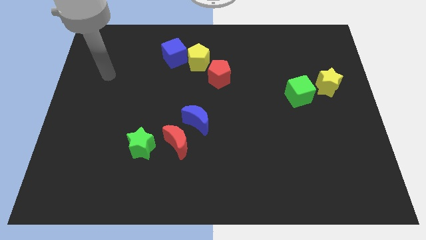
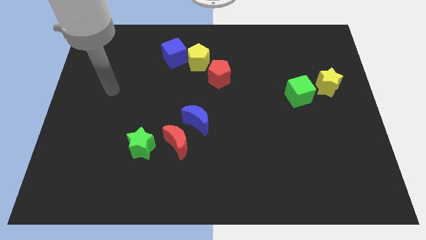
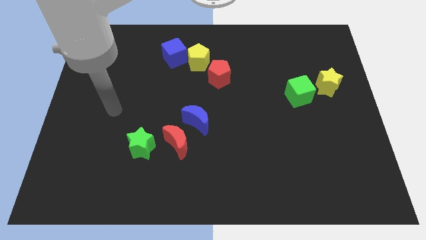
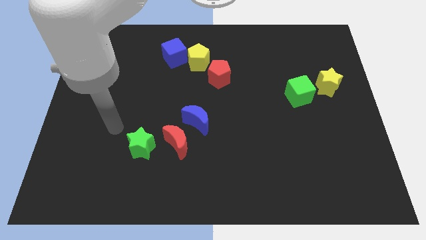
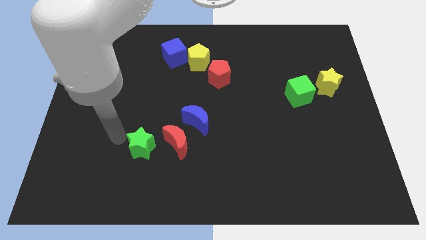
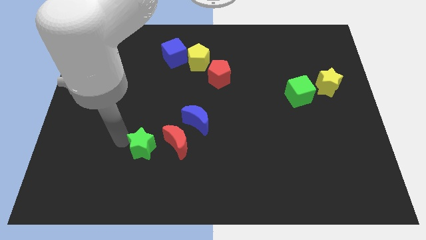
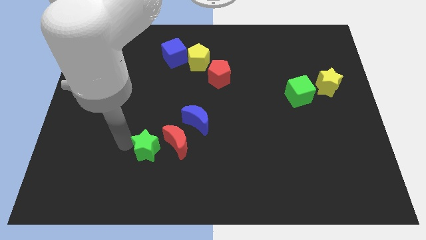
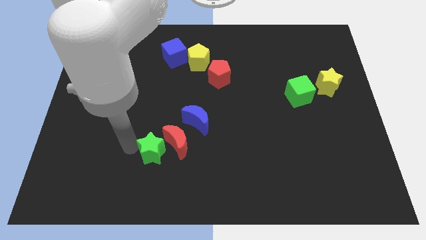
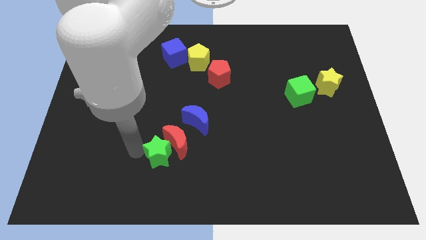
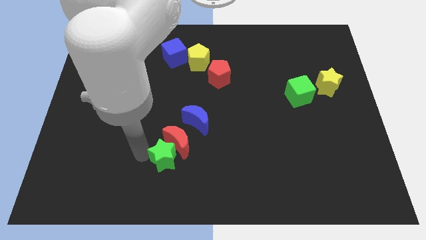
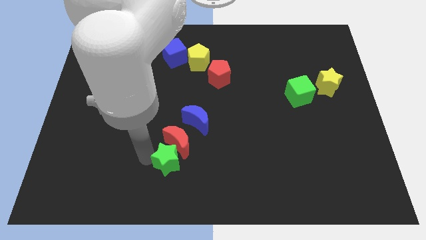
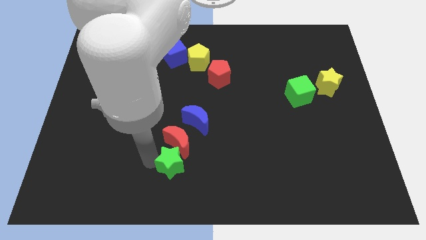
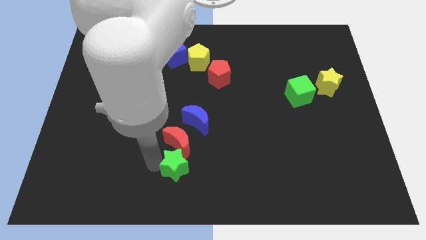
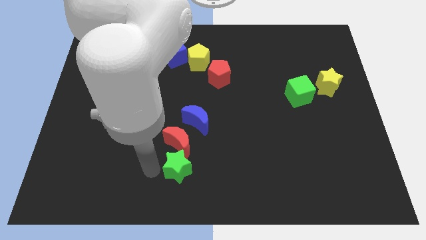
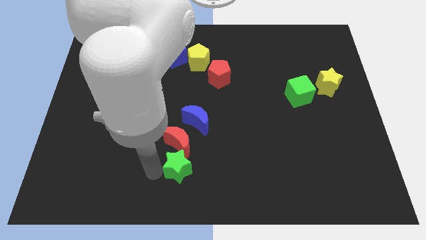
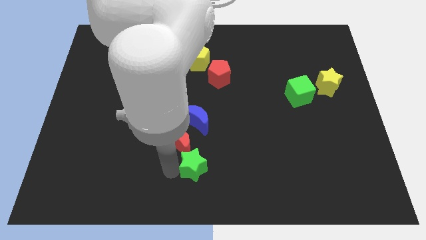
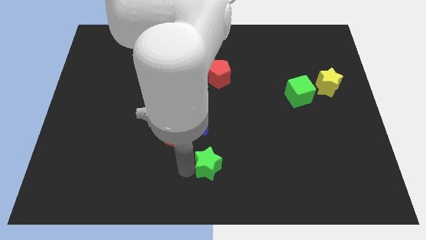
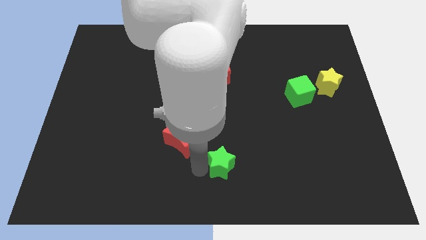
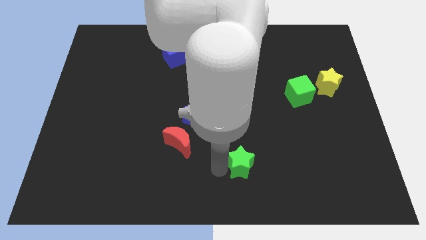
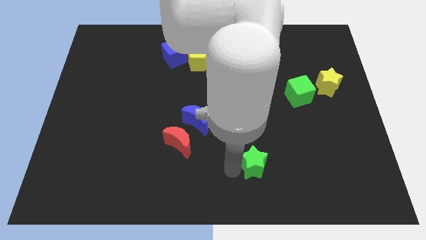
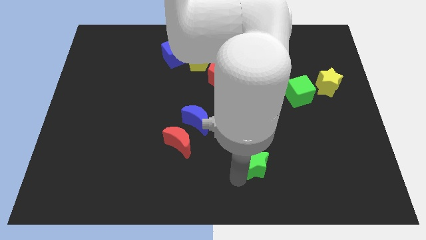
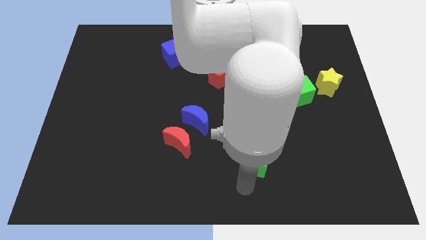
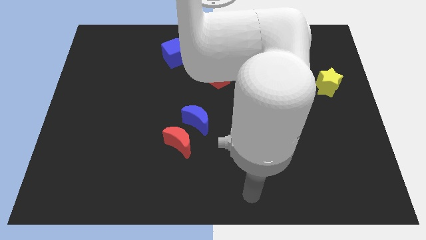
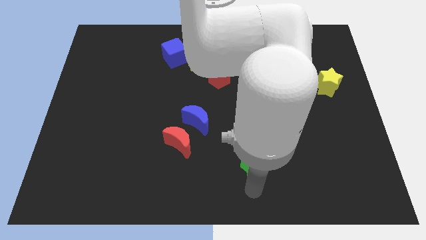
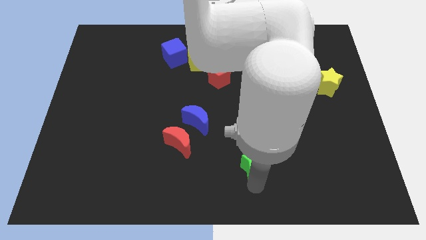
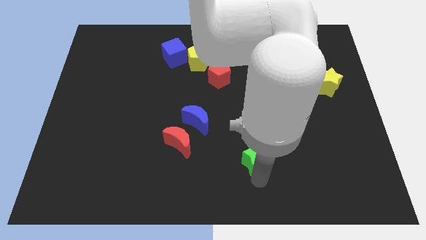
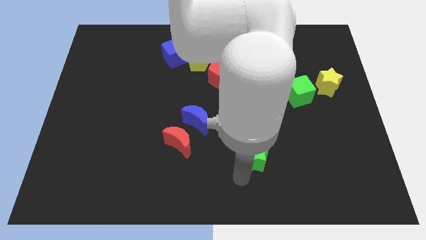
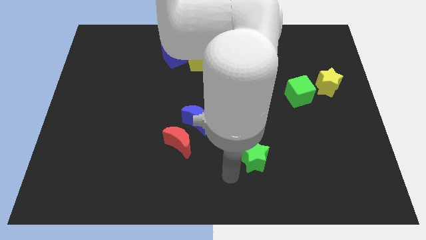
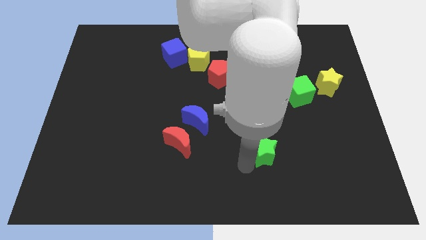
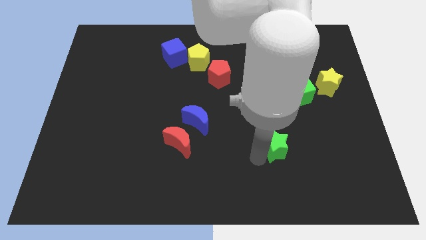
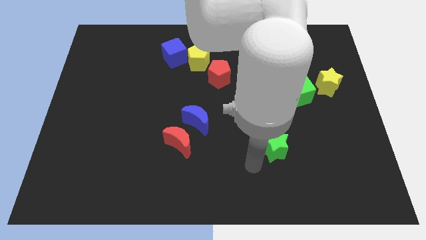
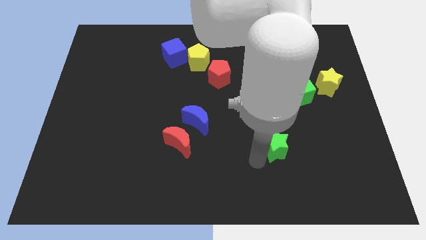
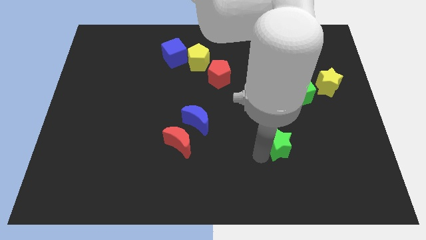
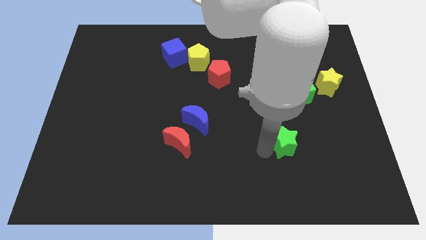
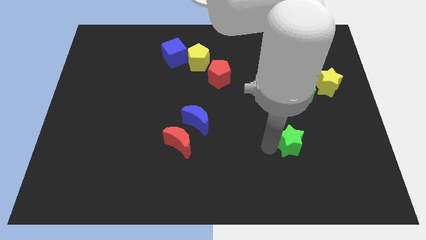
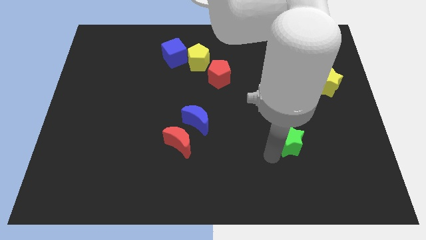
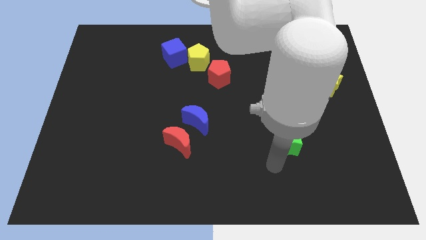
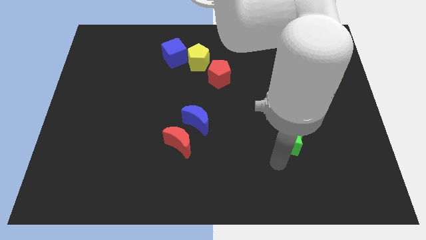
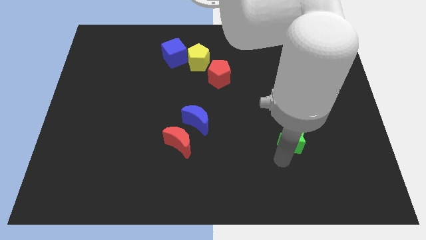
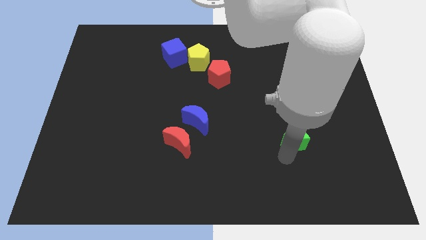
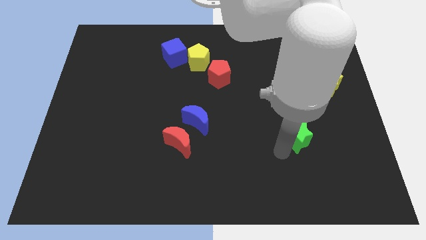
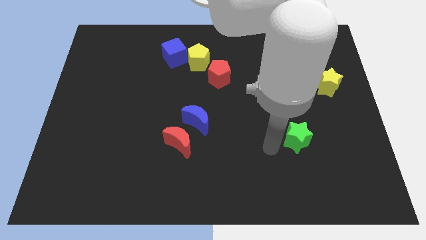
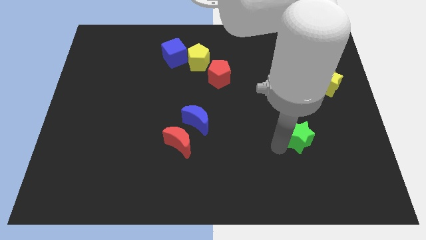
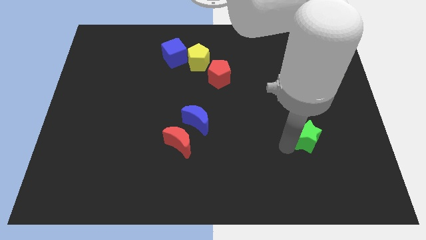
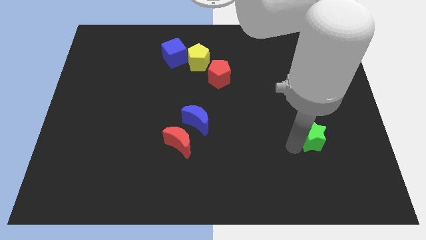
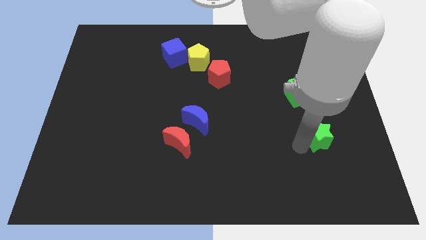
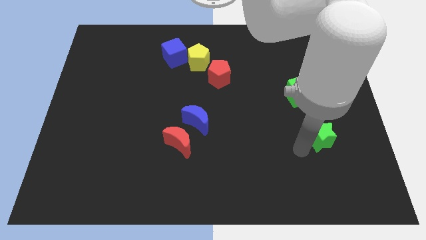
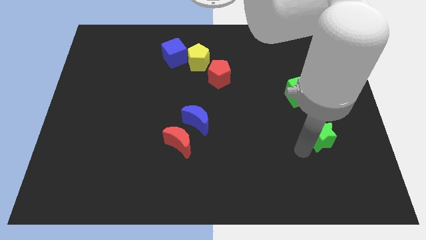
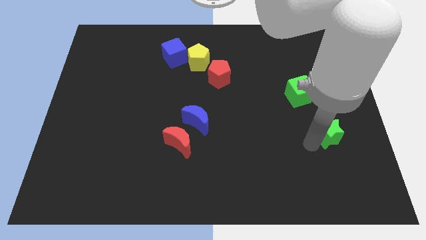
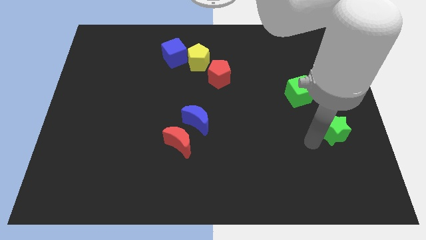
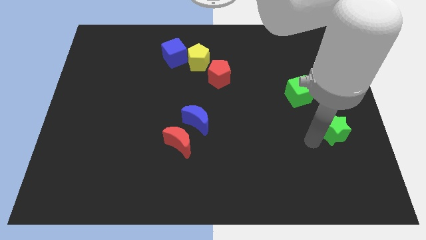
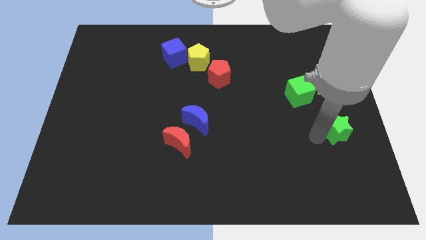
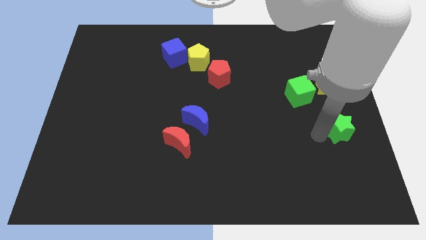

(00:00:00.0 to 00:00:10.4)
move the green star to the right side of the board

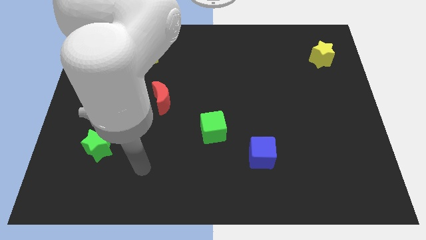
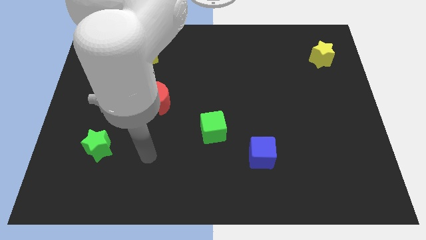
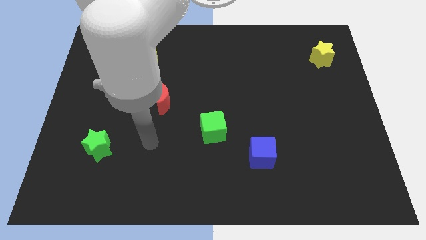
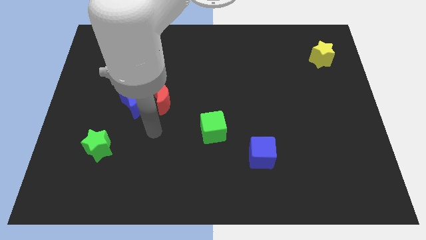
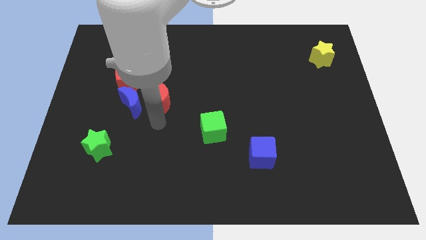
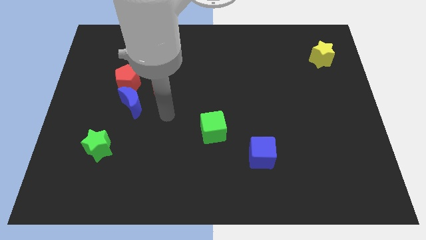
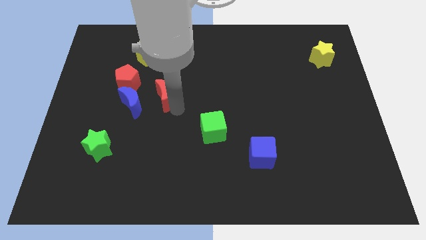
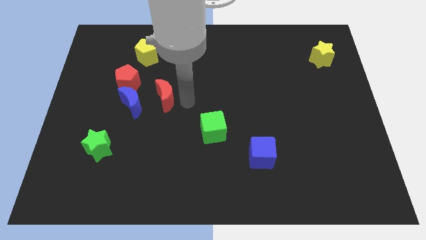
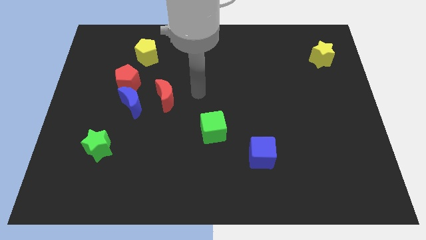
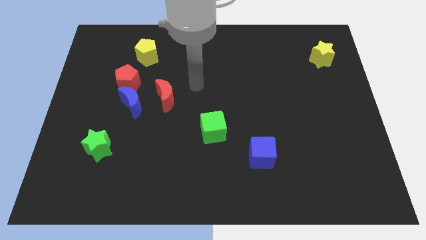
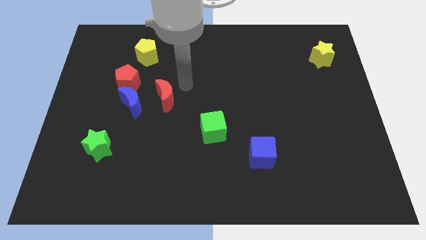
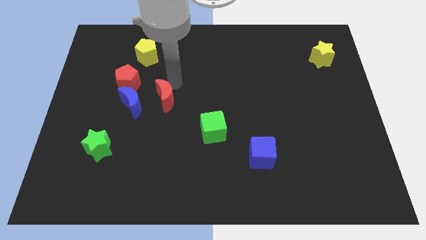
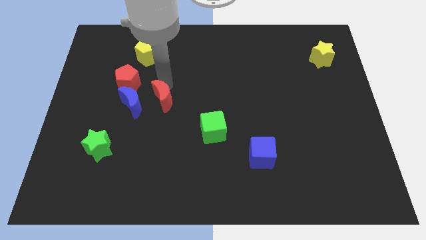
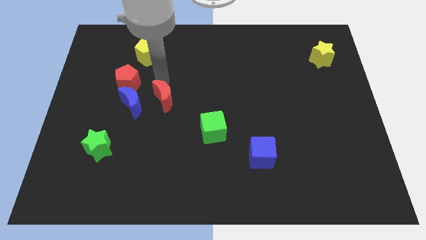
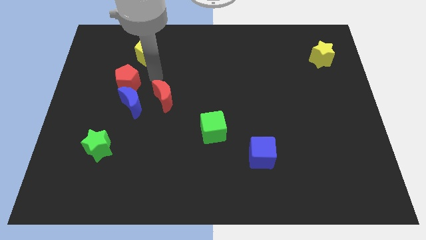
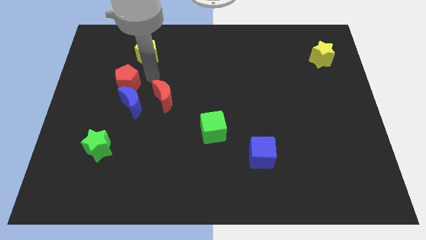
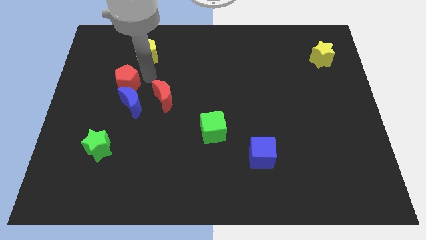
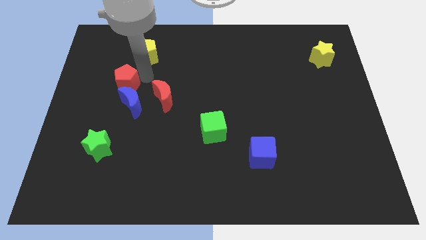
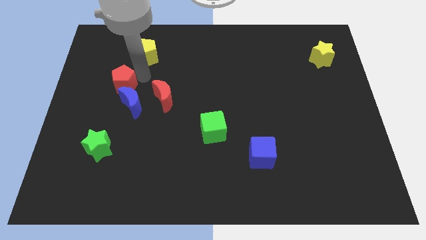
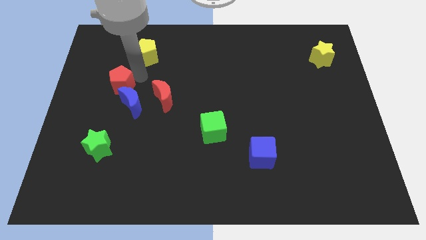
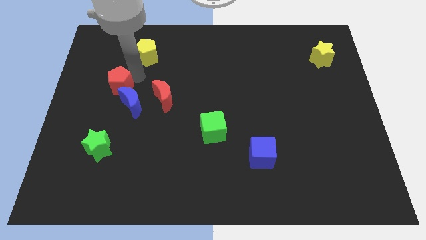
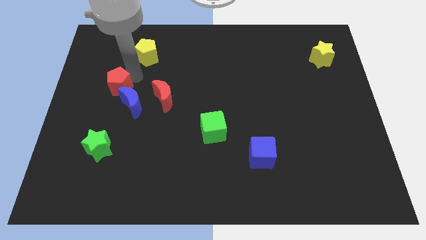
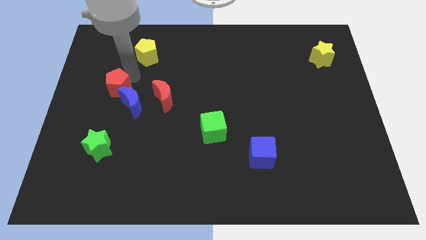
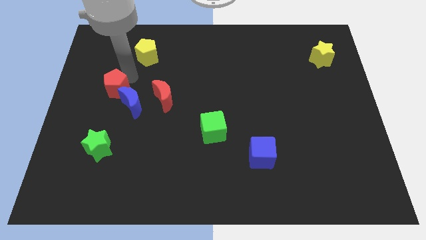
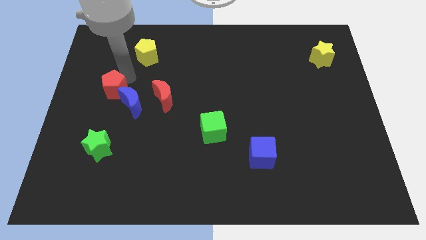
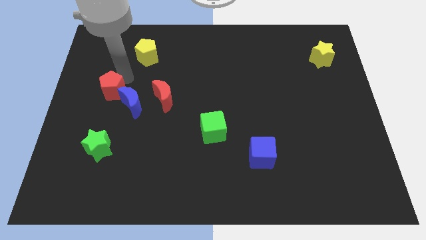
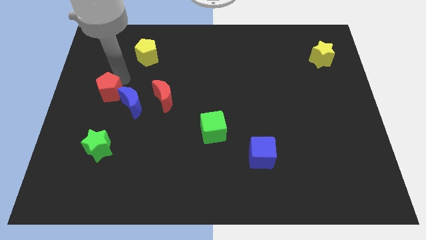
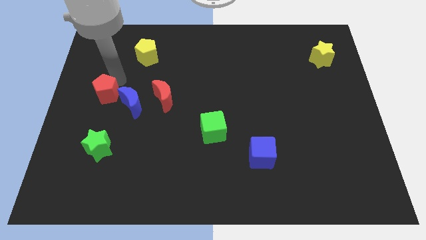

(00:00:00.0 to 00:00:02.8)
slide the red pentagon to the left side of the board

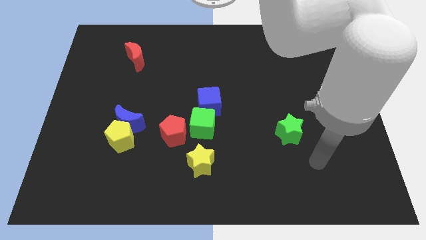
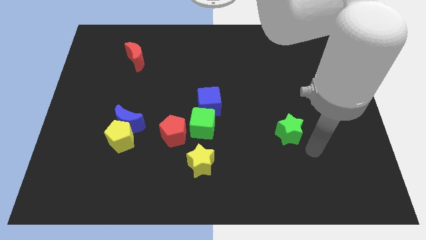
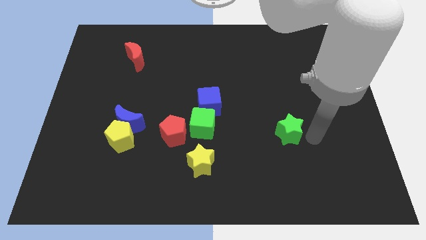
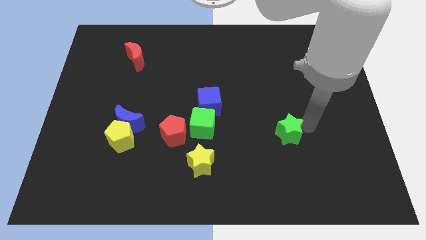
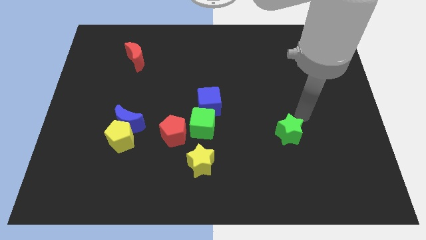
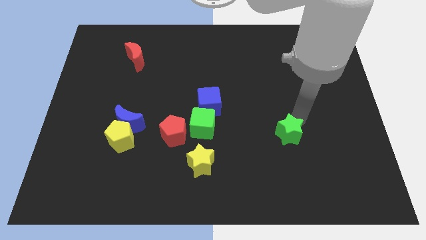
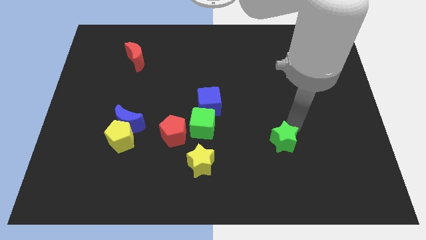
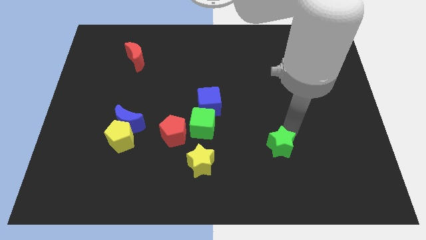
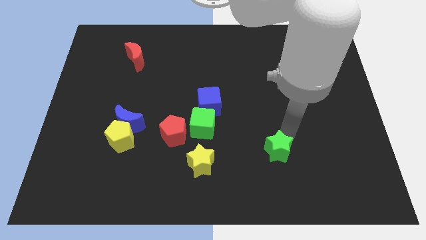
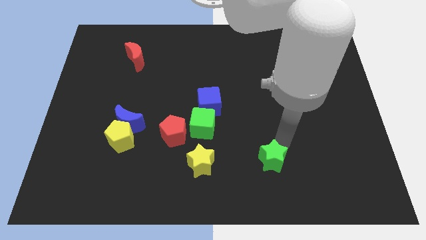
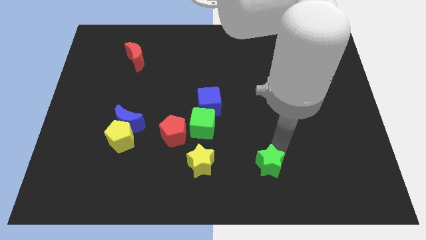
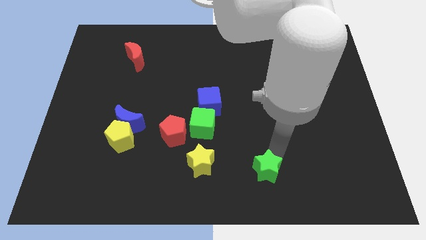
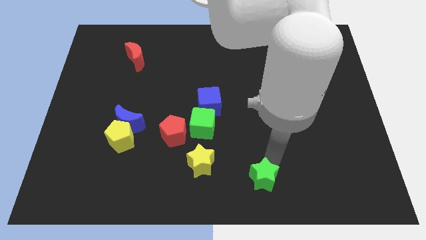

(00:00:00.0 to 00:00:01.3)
slide the green star to the bottom
